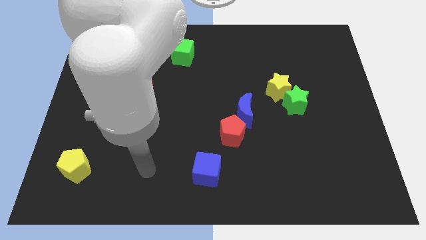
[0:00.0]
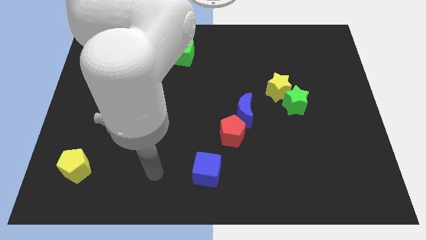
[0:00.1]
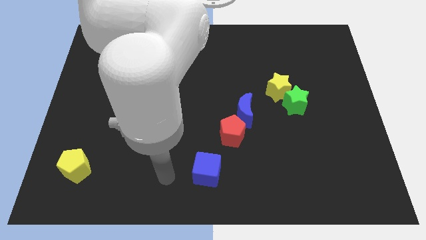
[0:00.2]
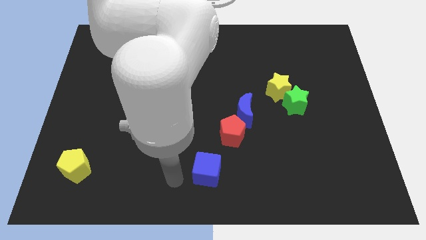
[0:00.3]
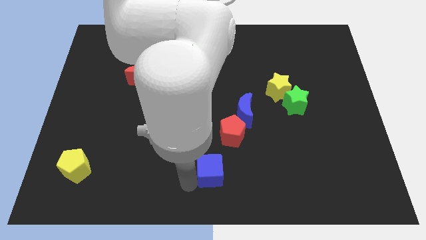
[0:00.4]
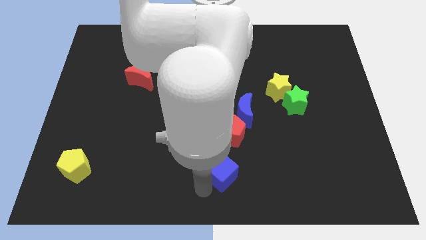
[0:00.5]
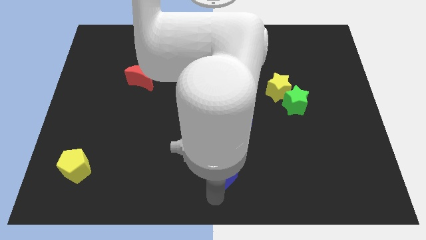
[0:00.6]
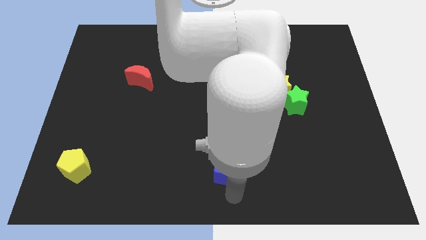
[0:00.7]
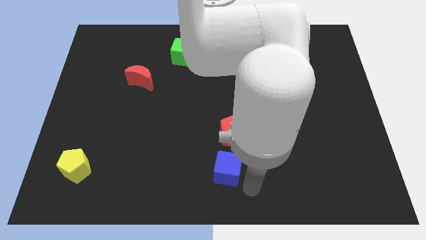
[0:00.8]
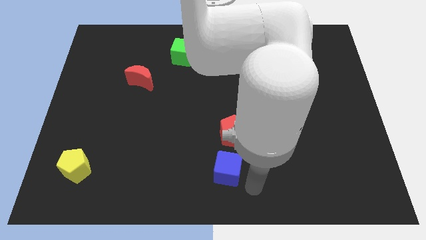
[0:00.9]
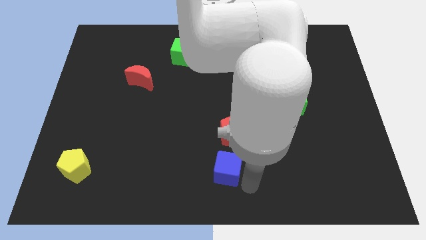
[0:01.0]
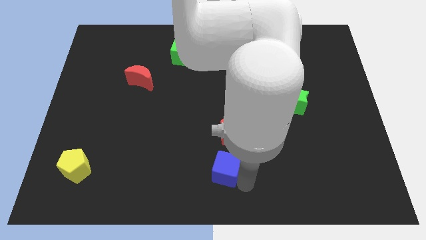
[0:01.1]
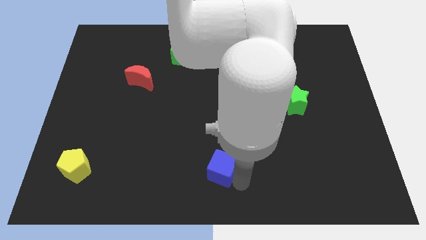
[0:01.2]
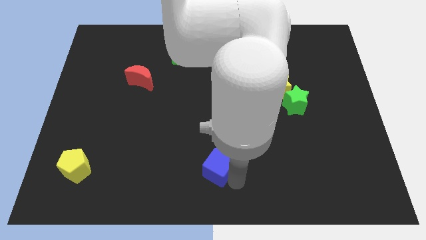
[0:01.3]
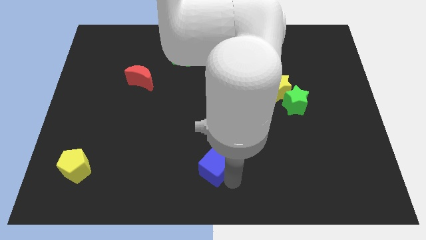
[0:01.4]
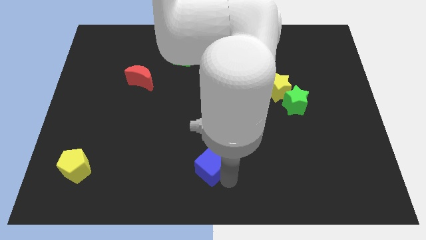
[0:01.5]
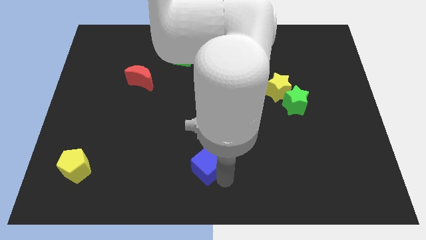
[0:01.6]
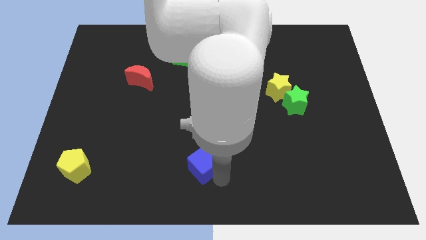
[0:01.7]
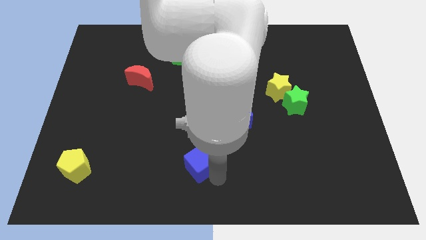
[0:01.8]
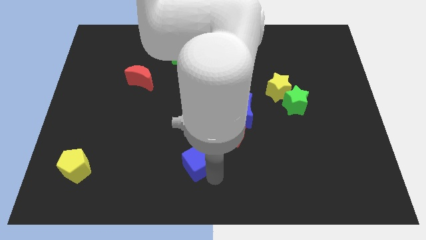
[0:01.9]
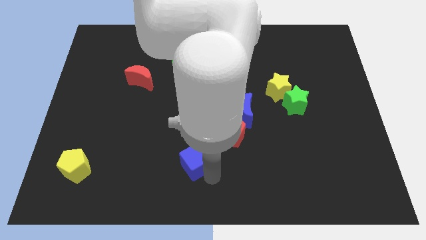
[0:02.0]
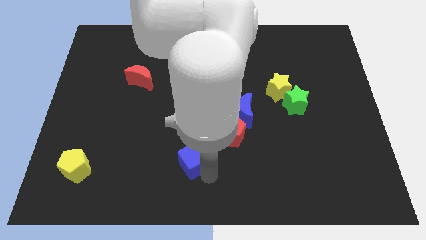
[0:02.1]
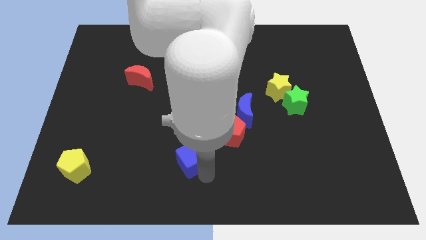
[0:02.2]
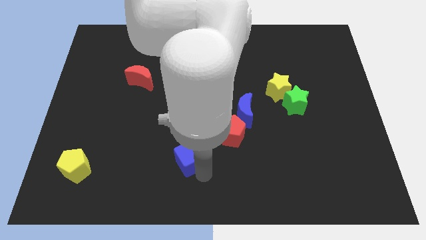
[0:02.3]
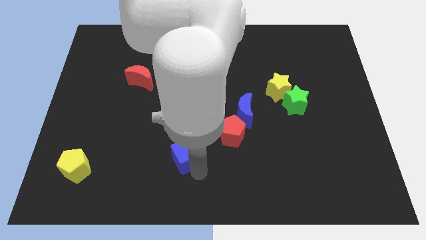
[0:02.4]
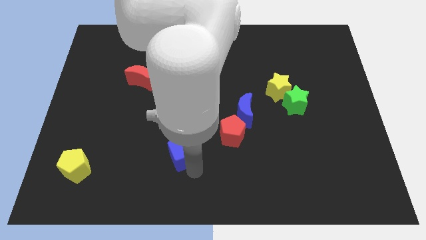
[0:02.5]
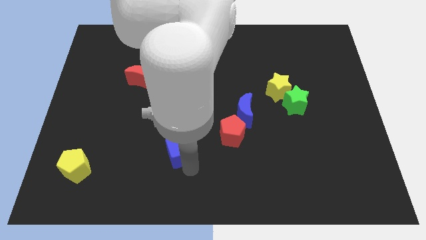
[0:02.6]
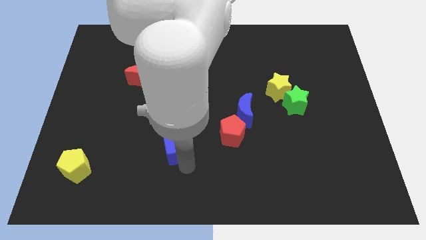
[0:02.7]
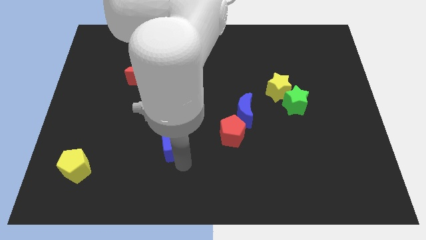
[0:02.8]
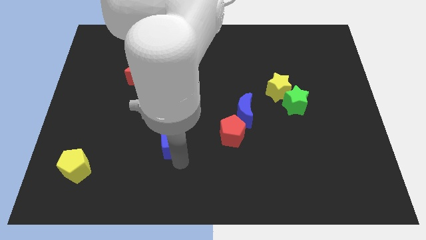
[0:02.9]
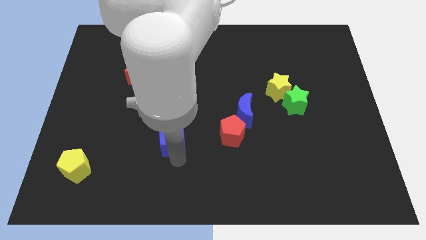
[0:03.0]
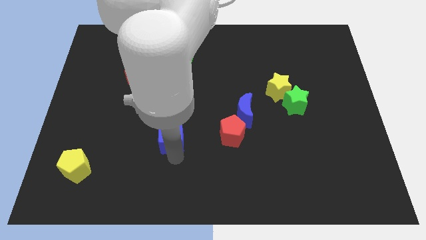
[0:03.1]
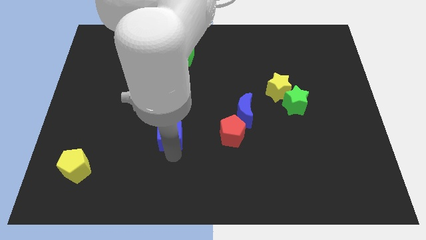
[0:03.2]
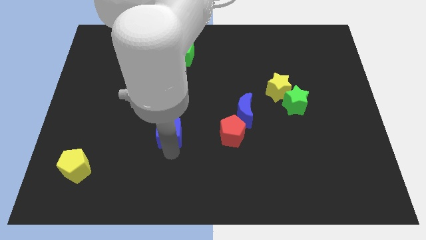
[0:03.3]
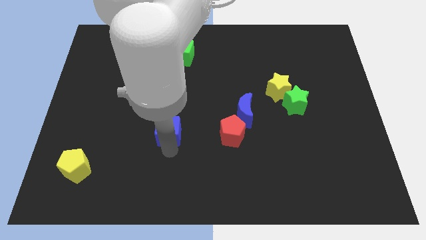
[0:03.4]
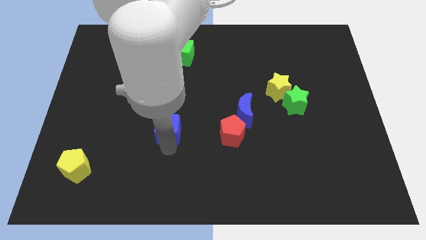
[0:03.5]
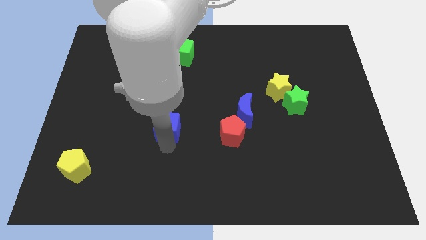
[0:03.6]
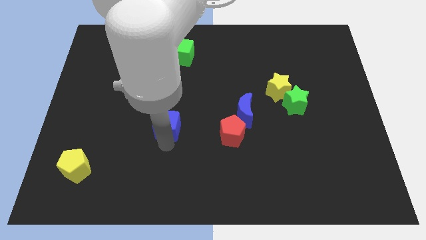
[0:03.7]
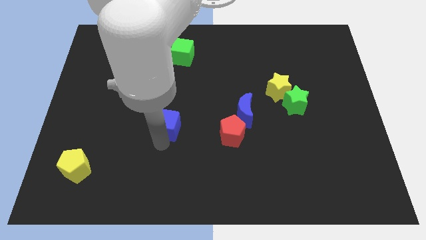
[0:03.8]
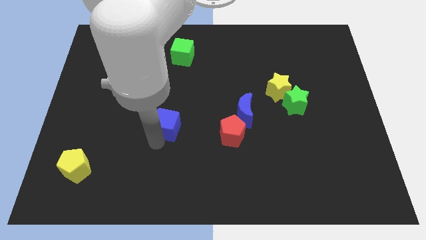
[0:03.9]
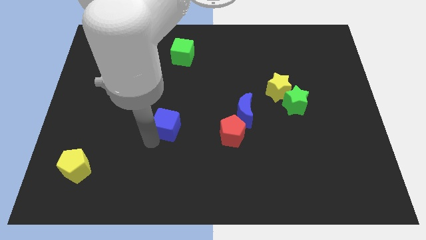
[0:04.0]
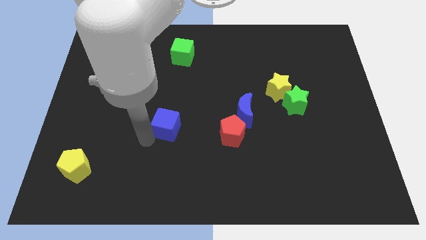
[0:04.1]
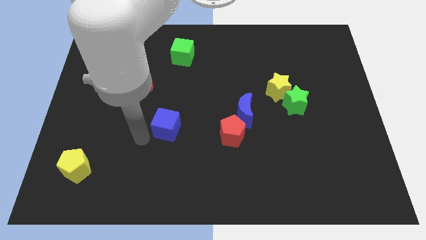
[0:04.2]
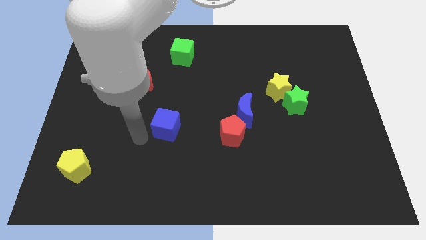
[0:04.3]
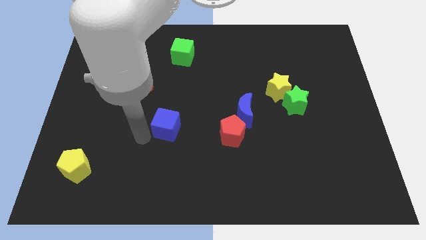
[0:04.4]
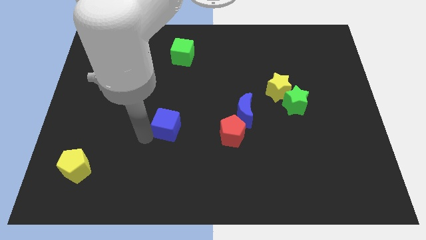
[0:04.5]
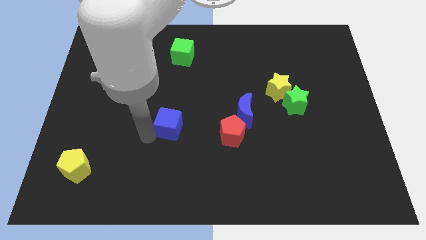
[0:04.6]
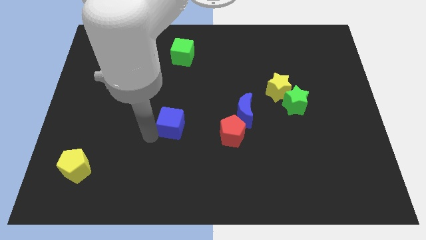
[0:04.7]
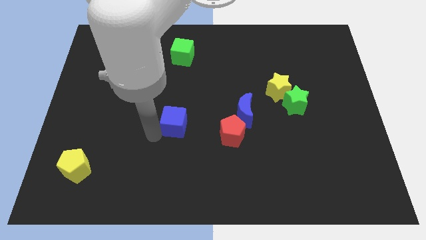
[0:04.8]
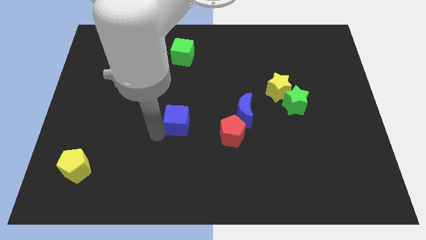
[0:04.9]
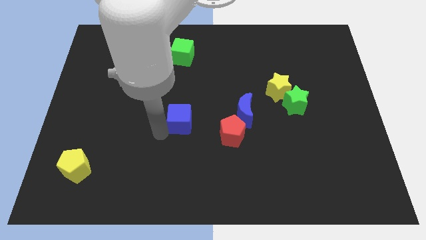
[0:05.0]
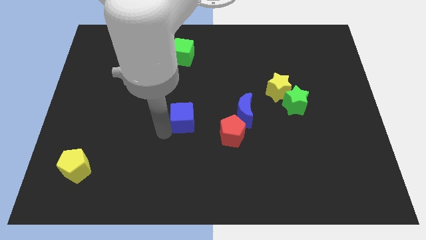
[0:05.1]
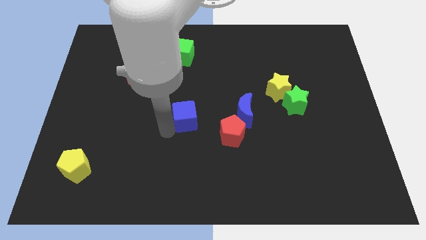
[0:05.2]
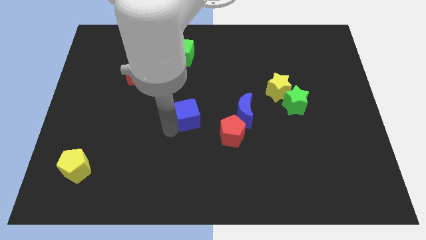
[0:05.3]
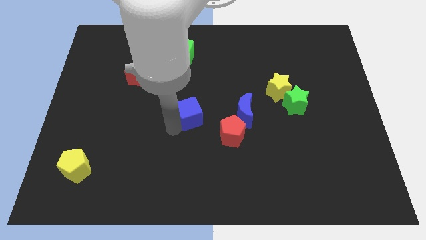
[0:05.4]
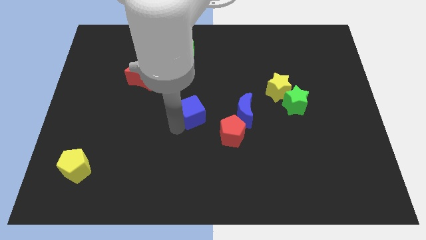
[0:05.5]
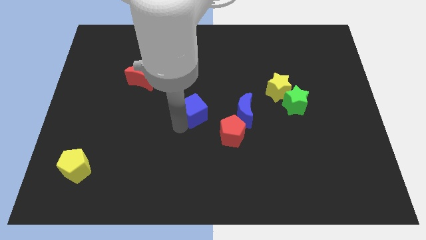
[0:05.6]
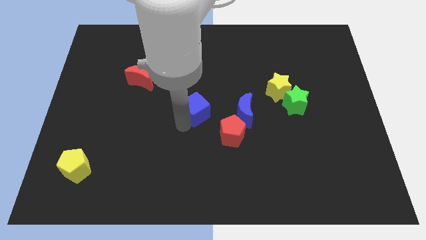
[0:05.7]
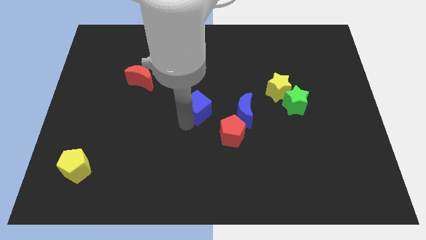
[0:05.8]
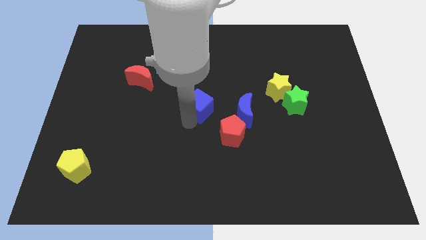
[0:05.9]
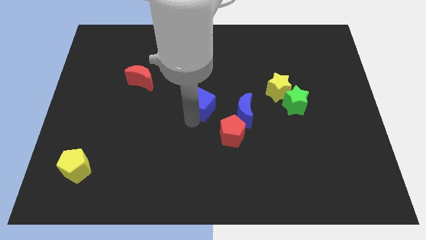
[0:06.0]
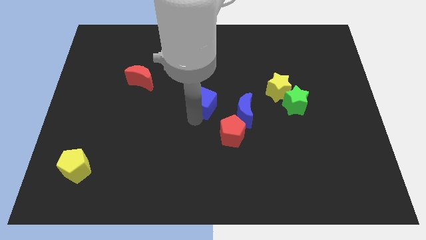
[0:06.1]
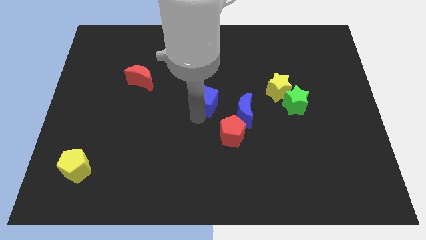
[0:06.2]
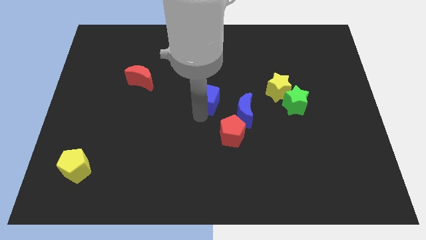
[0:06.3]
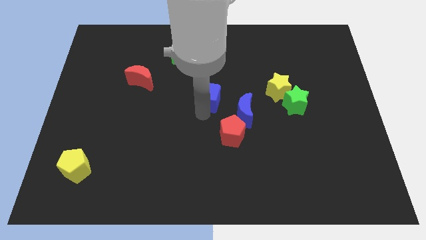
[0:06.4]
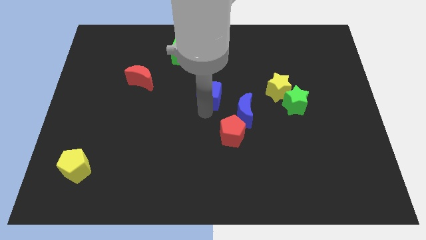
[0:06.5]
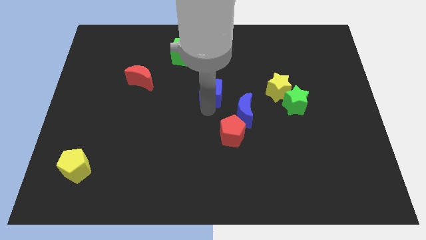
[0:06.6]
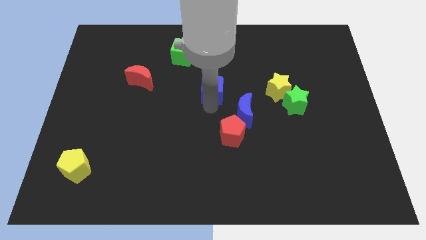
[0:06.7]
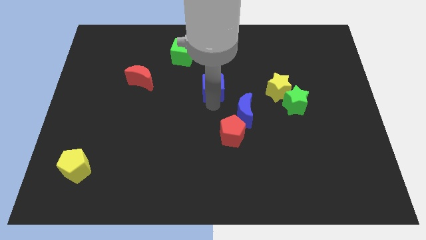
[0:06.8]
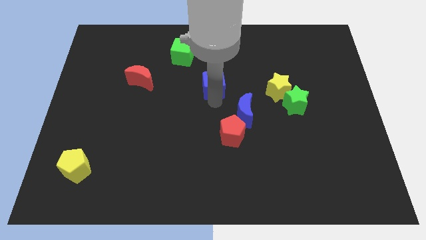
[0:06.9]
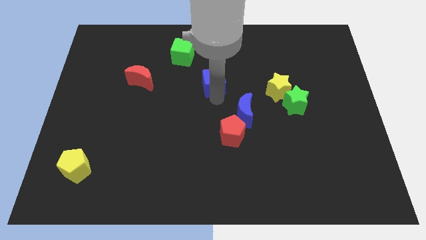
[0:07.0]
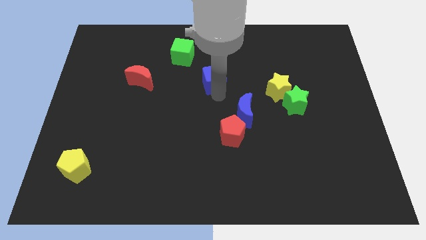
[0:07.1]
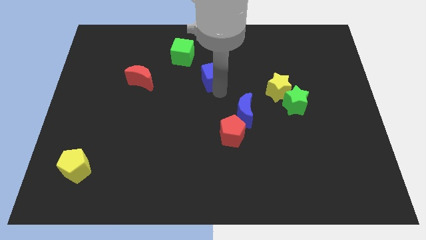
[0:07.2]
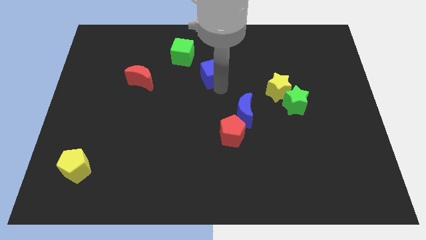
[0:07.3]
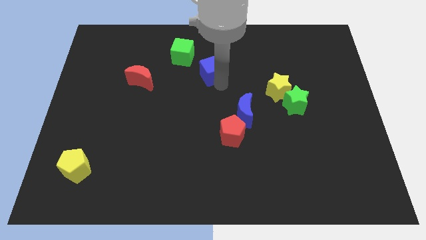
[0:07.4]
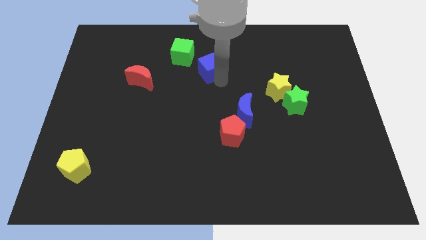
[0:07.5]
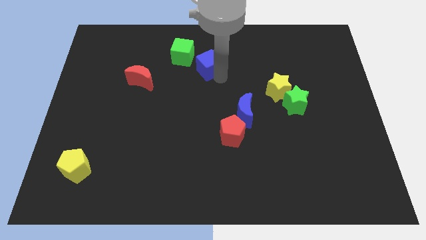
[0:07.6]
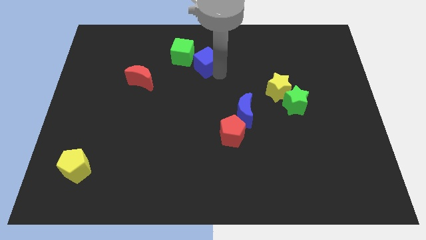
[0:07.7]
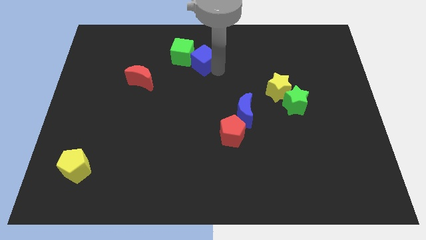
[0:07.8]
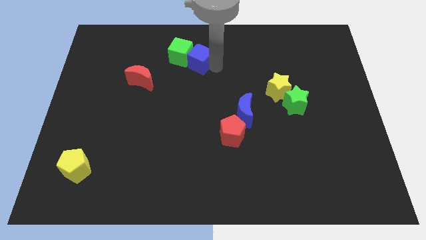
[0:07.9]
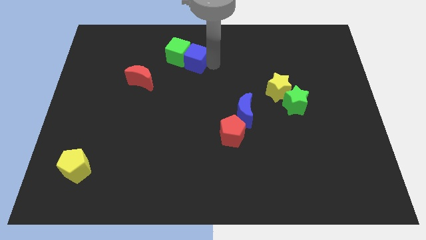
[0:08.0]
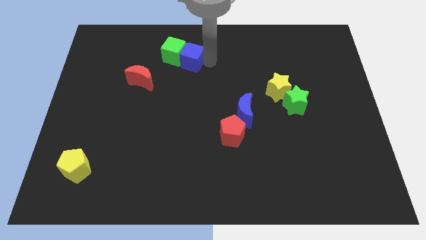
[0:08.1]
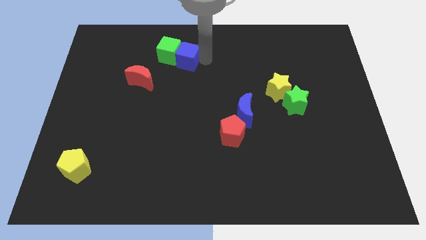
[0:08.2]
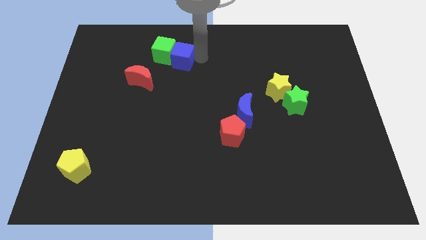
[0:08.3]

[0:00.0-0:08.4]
push the blue cube to the top right side of the red moon
